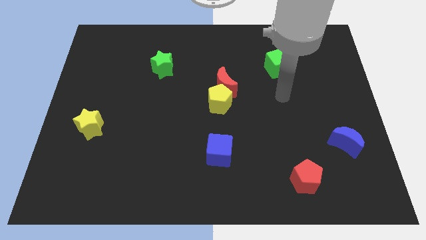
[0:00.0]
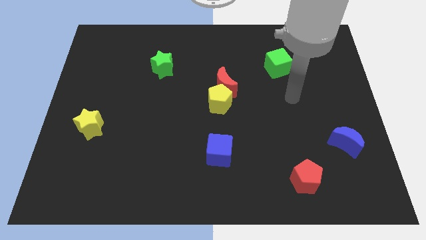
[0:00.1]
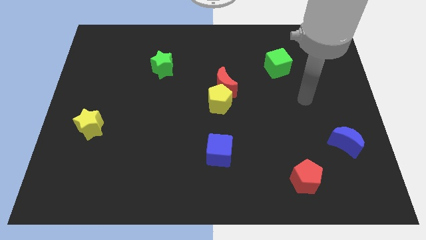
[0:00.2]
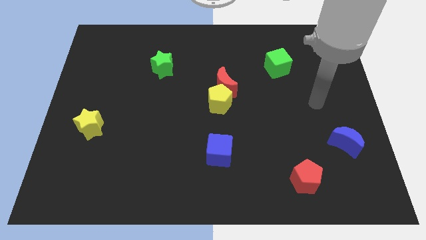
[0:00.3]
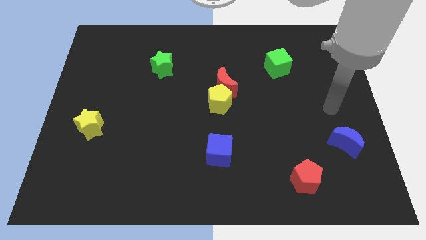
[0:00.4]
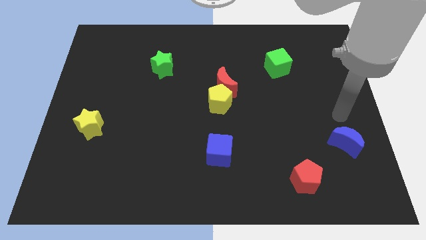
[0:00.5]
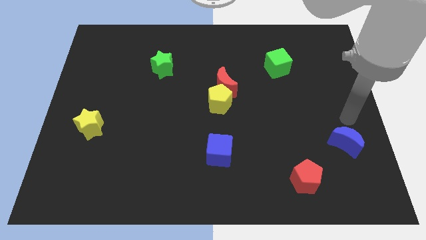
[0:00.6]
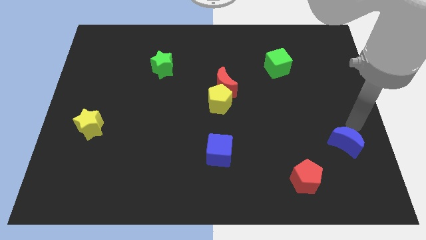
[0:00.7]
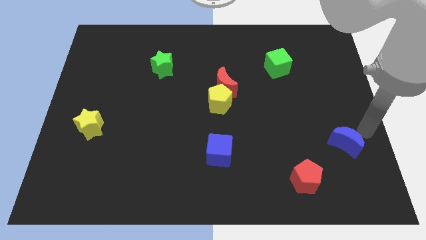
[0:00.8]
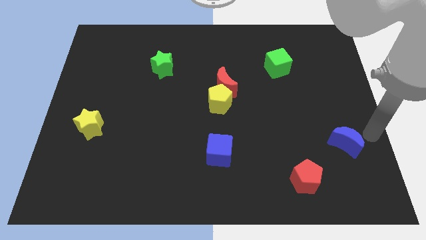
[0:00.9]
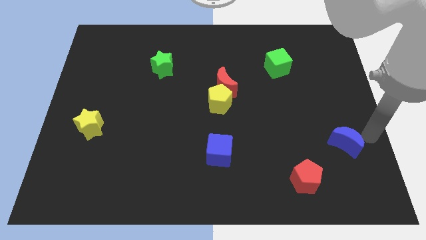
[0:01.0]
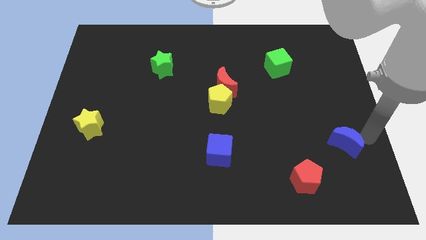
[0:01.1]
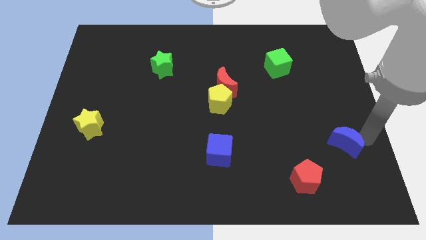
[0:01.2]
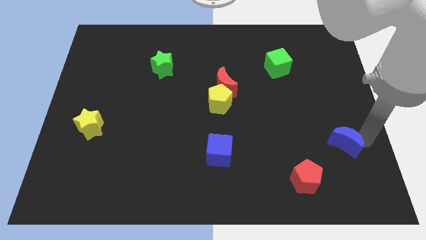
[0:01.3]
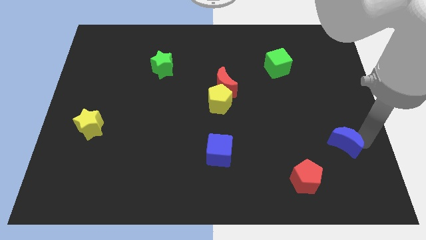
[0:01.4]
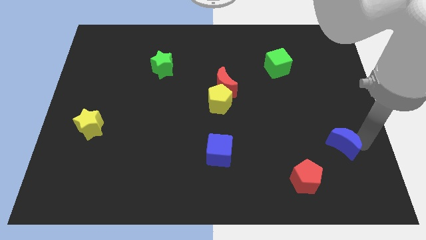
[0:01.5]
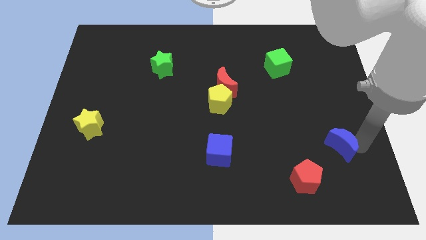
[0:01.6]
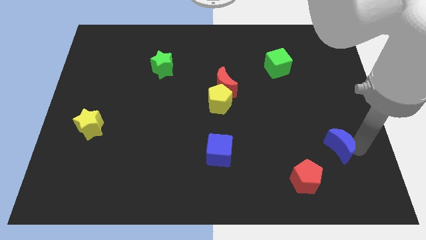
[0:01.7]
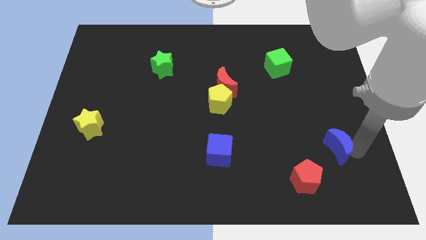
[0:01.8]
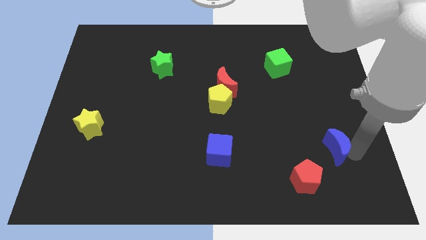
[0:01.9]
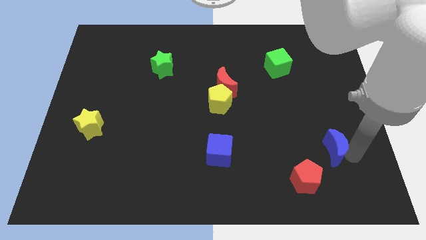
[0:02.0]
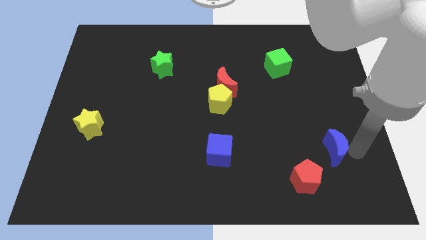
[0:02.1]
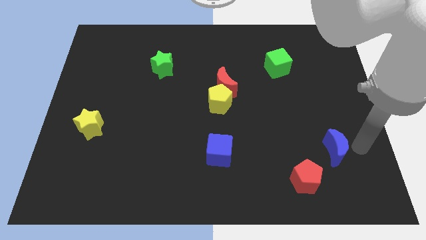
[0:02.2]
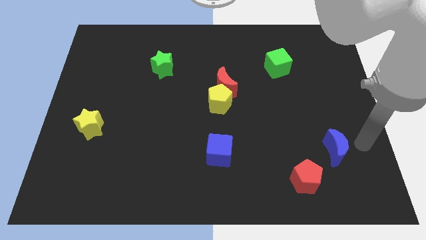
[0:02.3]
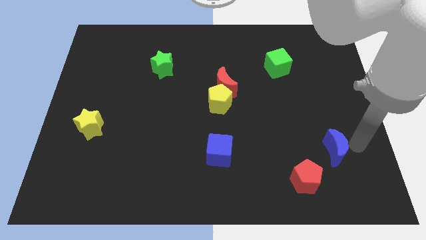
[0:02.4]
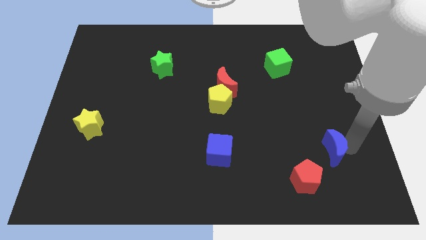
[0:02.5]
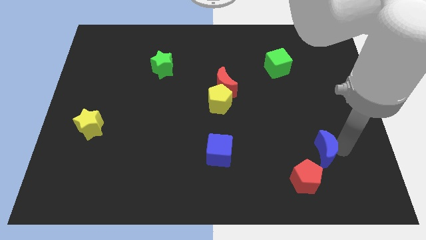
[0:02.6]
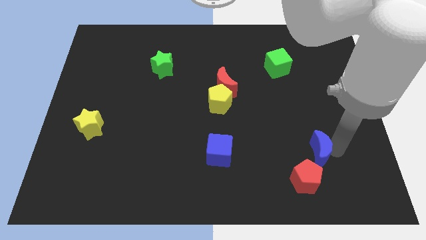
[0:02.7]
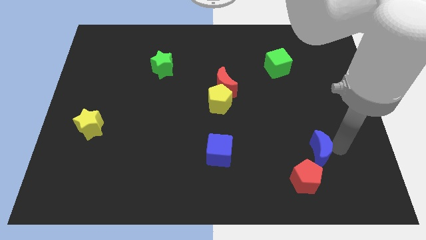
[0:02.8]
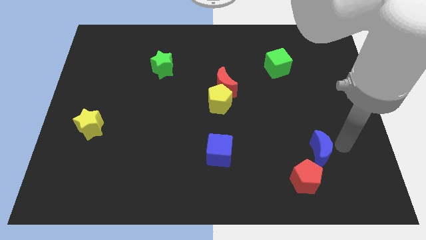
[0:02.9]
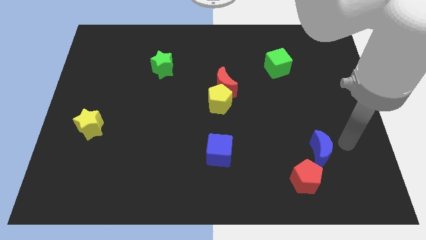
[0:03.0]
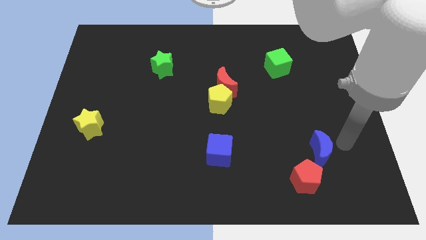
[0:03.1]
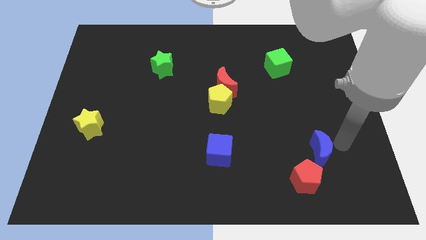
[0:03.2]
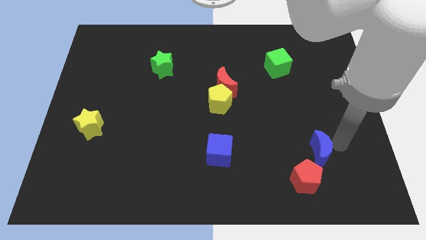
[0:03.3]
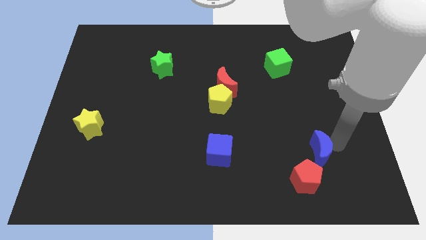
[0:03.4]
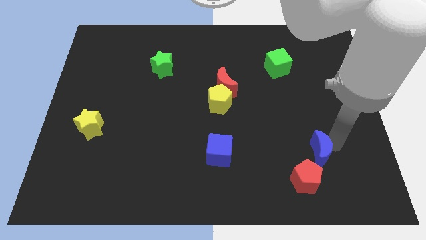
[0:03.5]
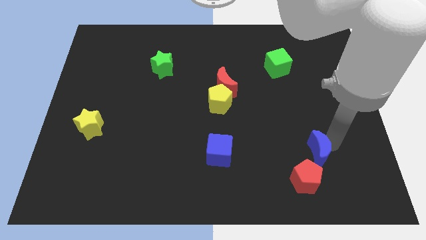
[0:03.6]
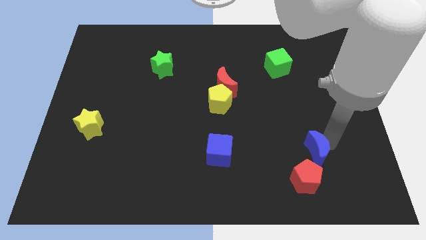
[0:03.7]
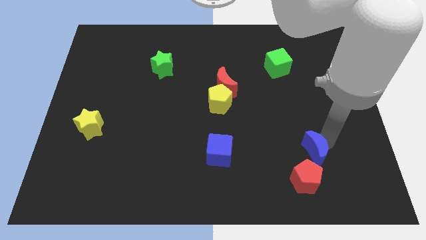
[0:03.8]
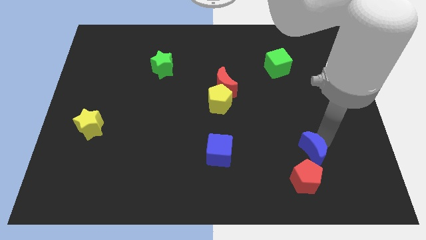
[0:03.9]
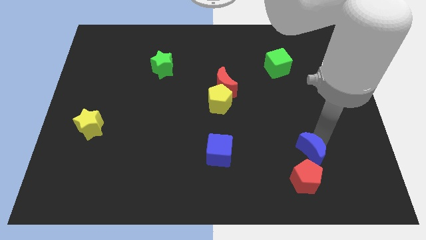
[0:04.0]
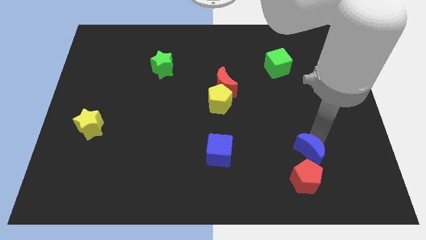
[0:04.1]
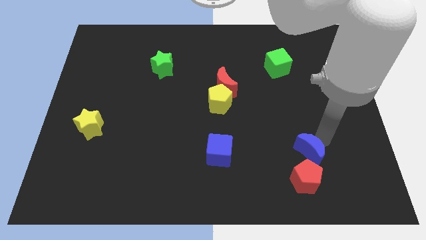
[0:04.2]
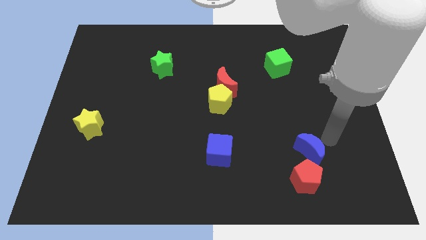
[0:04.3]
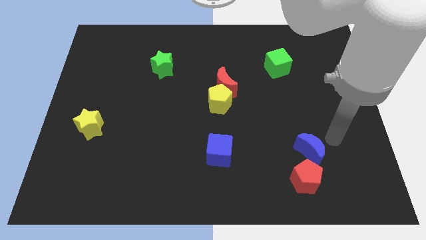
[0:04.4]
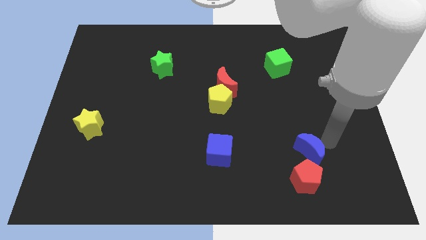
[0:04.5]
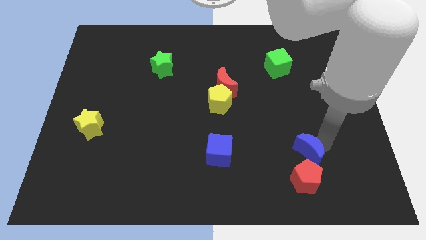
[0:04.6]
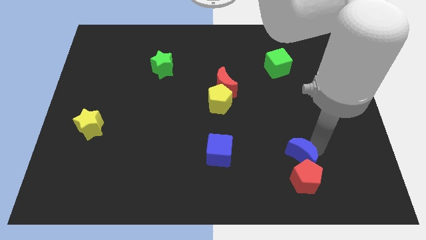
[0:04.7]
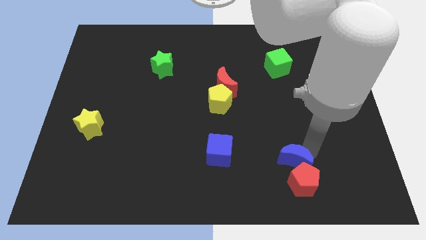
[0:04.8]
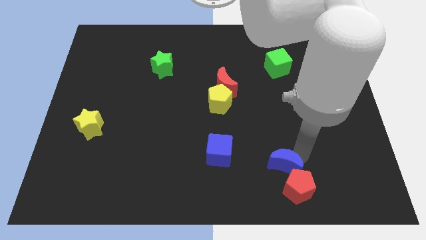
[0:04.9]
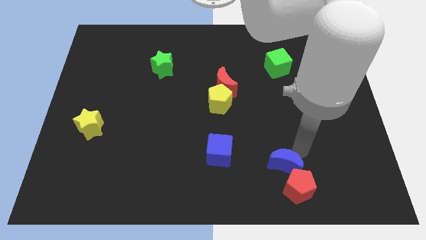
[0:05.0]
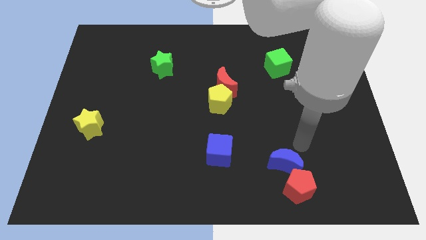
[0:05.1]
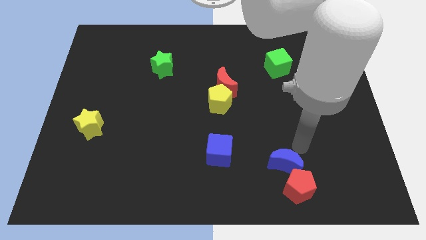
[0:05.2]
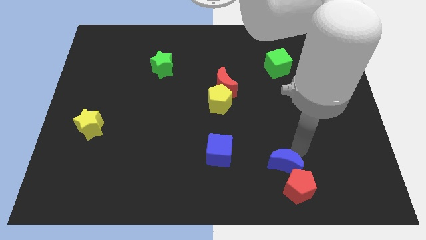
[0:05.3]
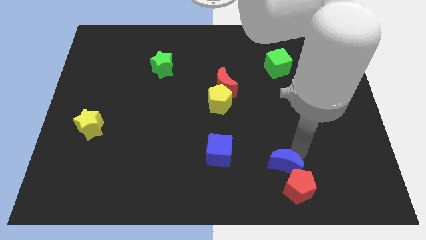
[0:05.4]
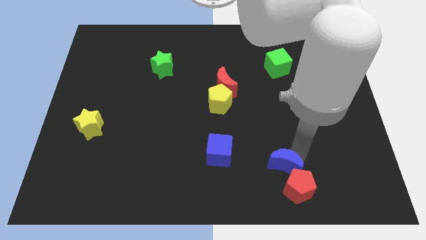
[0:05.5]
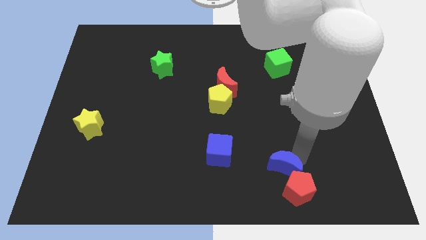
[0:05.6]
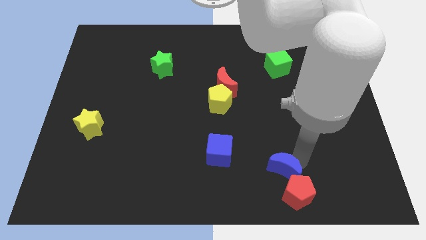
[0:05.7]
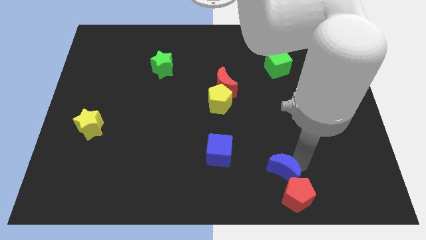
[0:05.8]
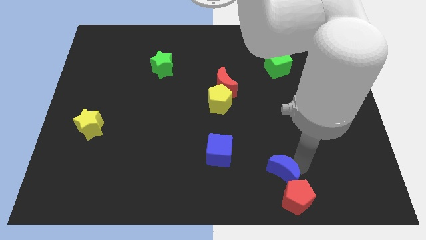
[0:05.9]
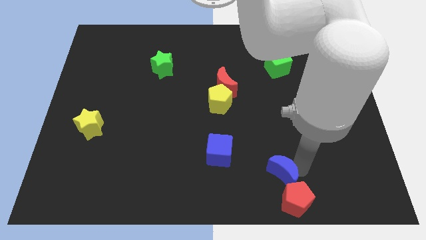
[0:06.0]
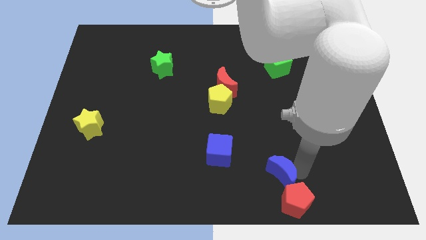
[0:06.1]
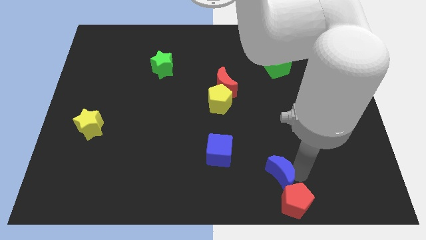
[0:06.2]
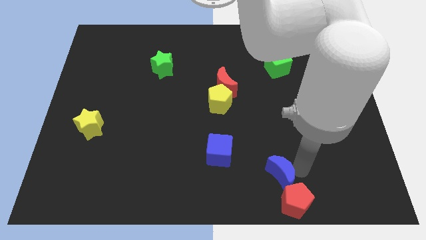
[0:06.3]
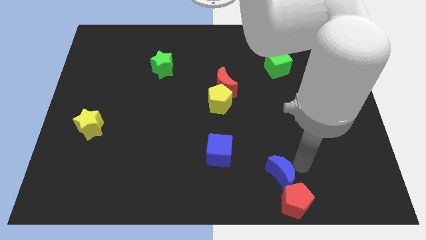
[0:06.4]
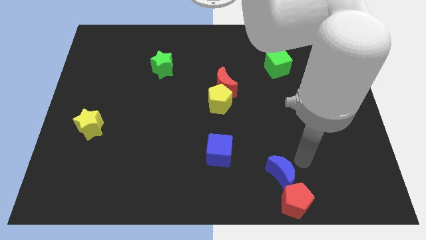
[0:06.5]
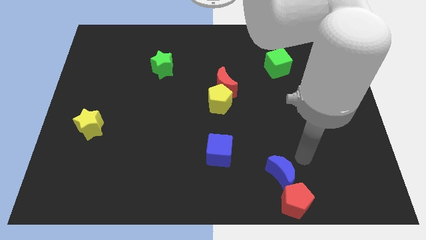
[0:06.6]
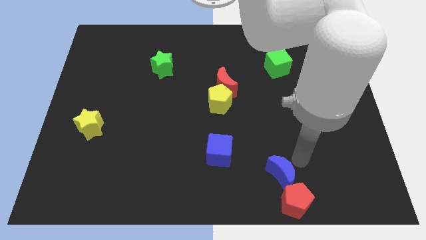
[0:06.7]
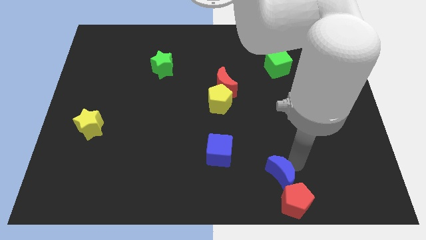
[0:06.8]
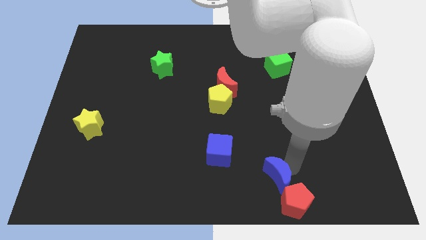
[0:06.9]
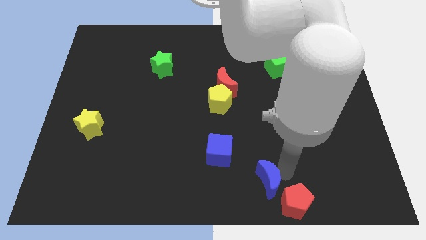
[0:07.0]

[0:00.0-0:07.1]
put the blue moon to the bottom side
